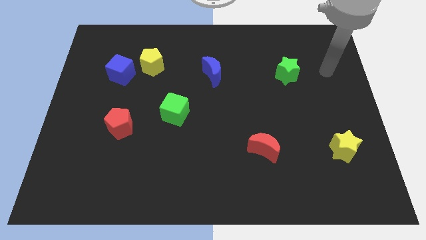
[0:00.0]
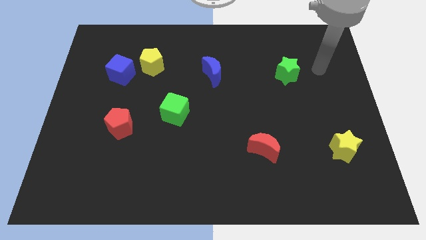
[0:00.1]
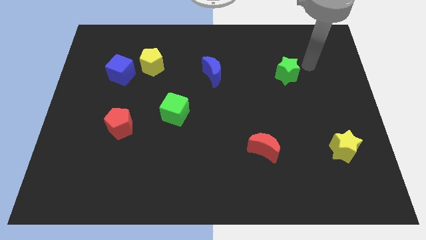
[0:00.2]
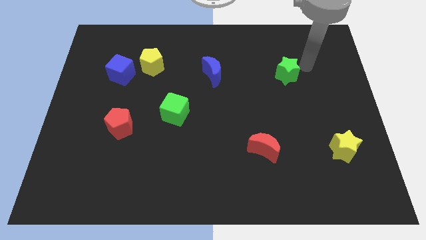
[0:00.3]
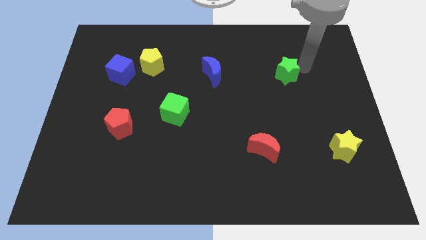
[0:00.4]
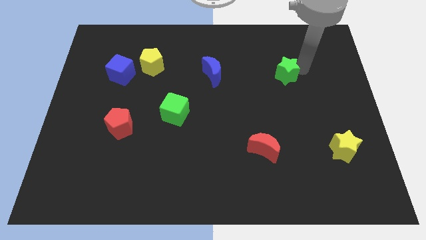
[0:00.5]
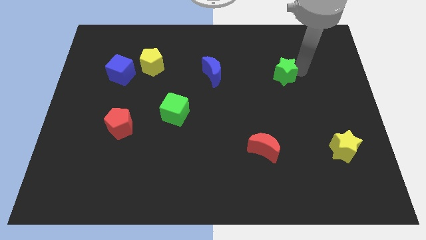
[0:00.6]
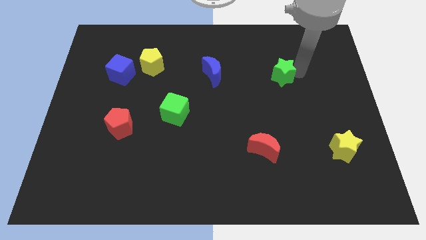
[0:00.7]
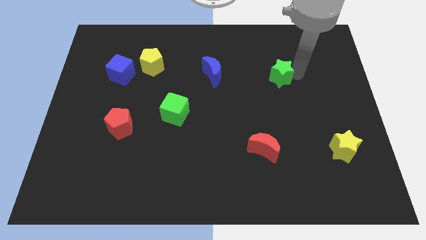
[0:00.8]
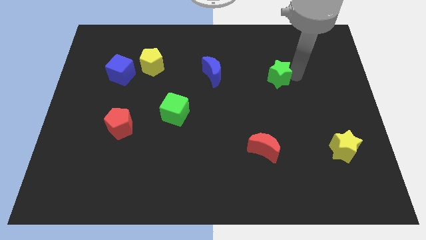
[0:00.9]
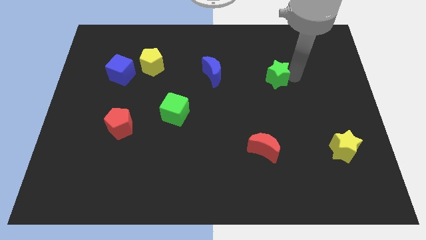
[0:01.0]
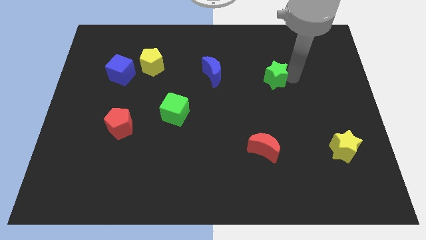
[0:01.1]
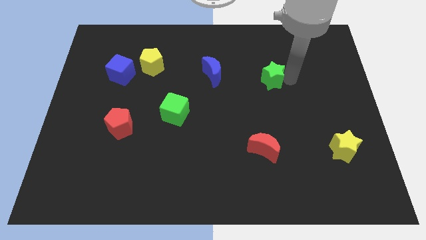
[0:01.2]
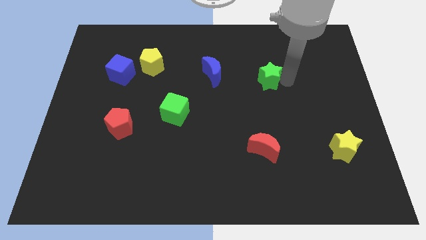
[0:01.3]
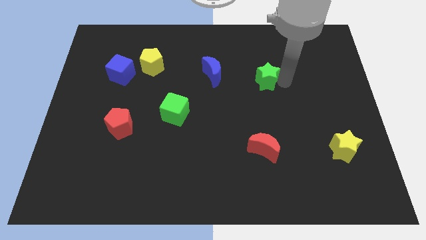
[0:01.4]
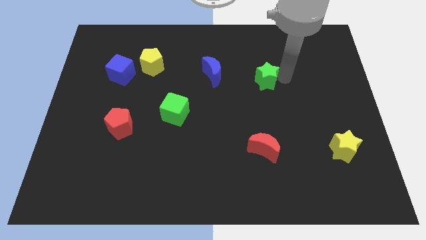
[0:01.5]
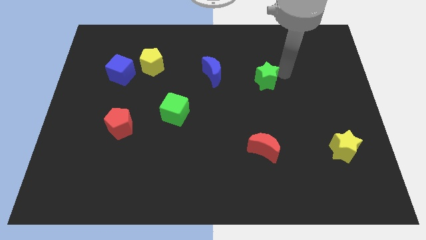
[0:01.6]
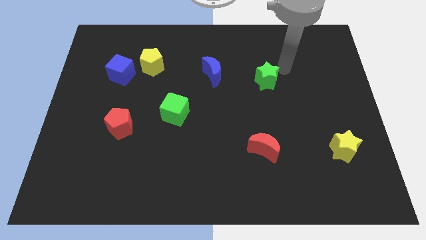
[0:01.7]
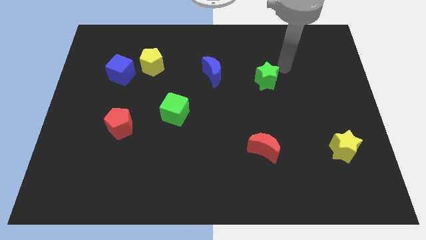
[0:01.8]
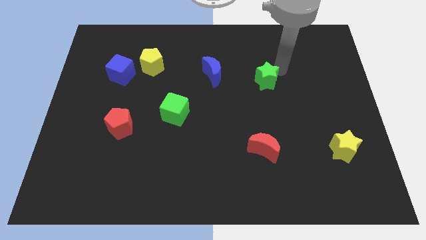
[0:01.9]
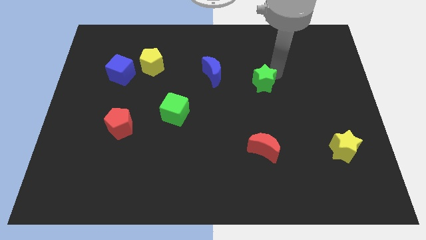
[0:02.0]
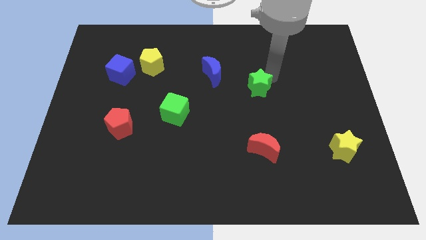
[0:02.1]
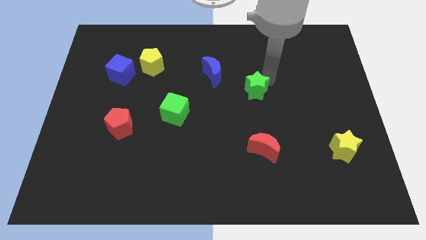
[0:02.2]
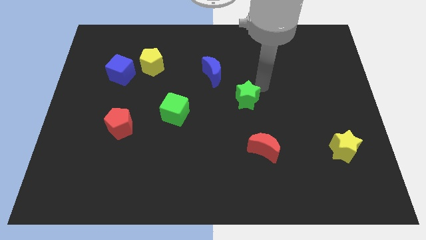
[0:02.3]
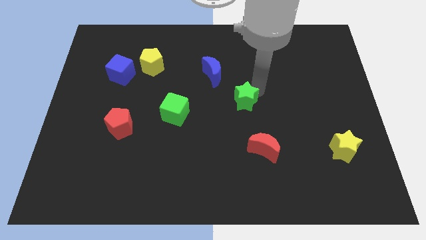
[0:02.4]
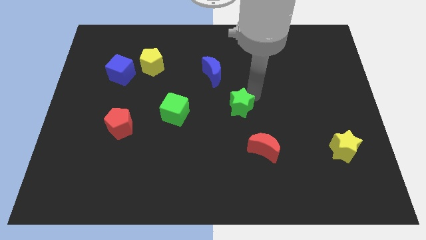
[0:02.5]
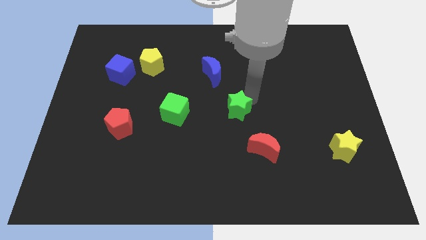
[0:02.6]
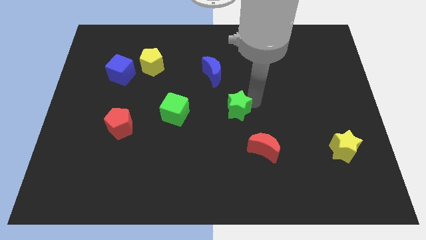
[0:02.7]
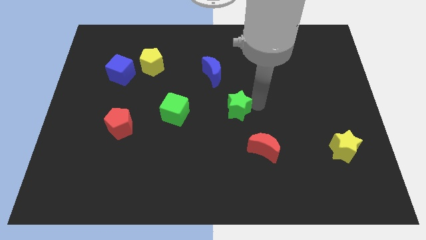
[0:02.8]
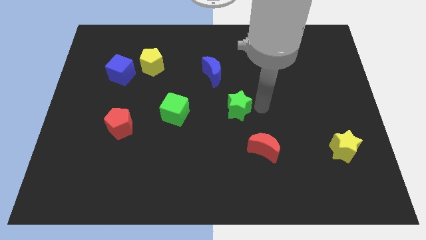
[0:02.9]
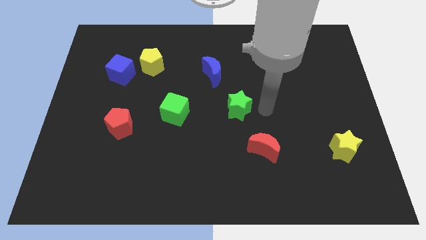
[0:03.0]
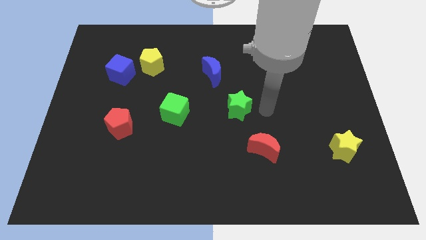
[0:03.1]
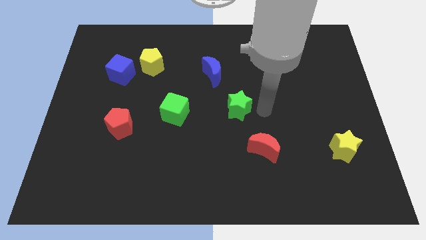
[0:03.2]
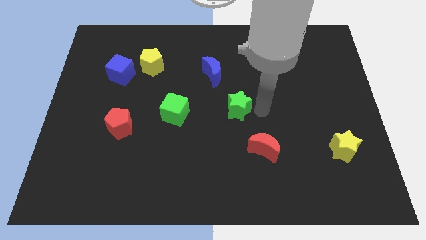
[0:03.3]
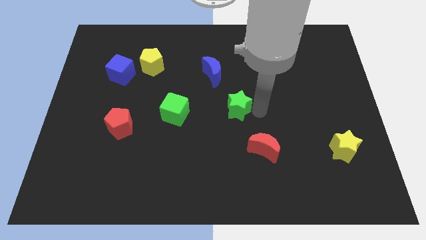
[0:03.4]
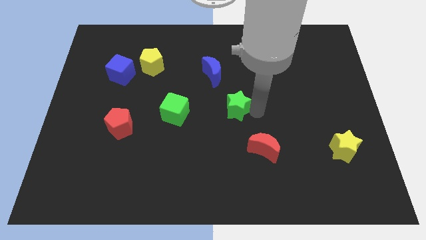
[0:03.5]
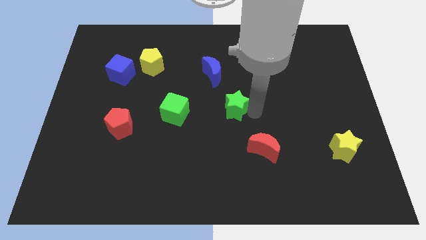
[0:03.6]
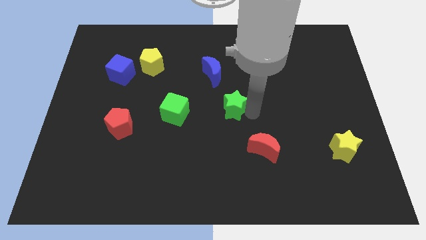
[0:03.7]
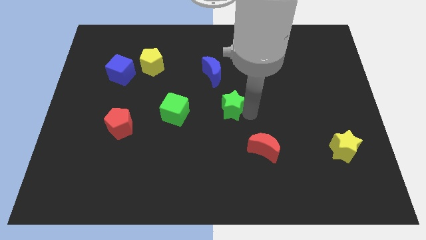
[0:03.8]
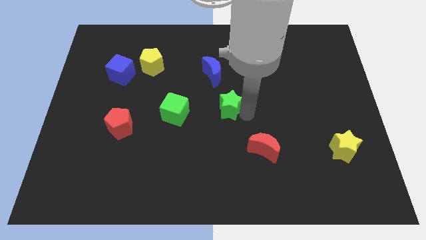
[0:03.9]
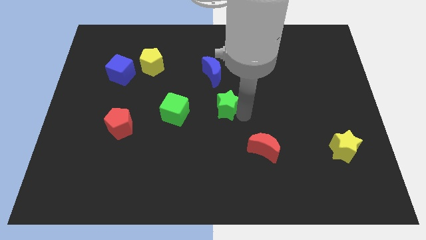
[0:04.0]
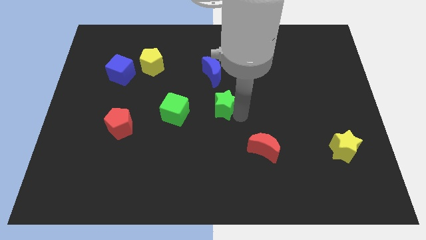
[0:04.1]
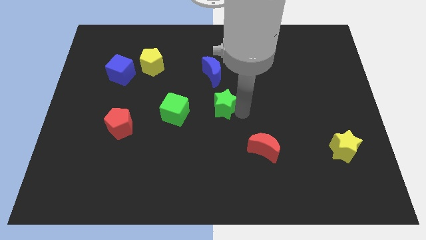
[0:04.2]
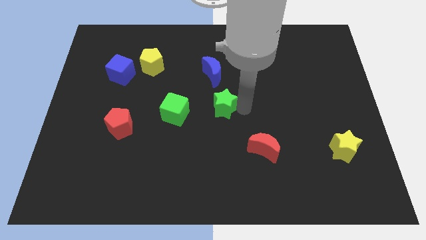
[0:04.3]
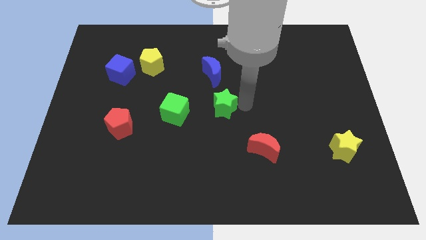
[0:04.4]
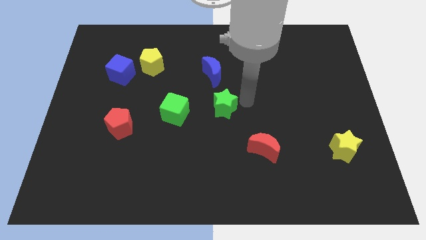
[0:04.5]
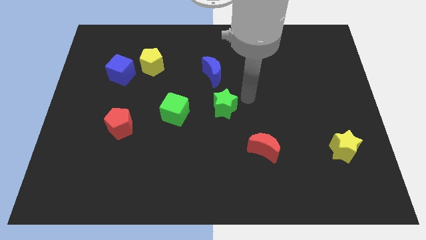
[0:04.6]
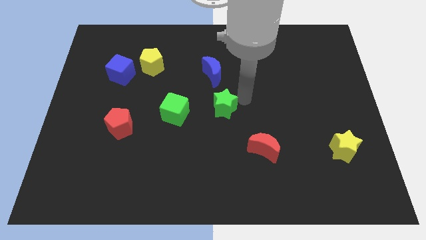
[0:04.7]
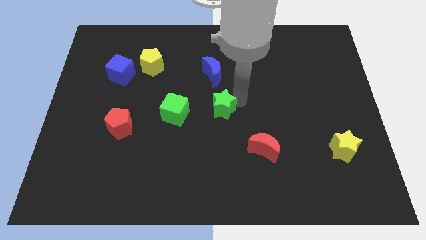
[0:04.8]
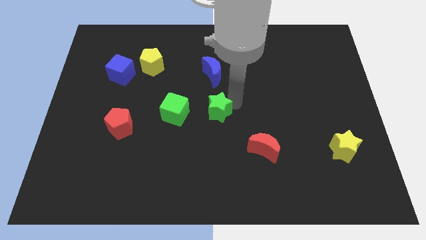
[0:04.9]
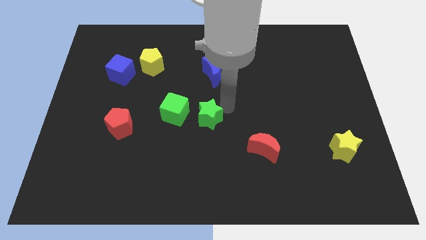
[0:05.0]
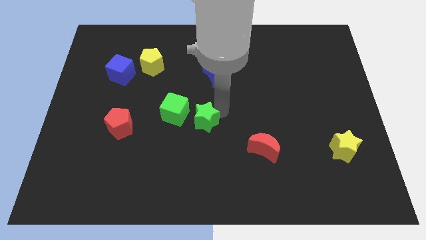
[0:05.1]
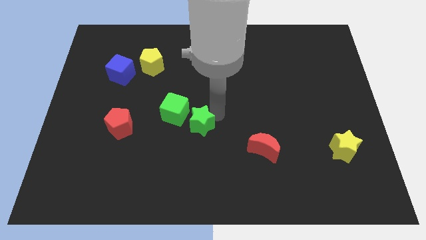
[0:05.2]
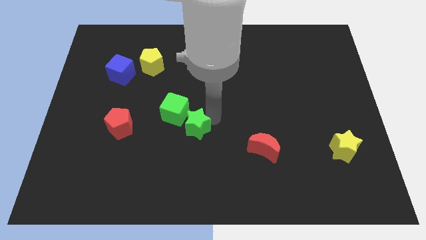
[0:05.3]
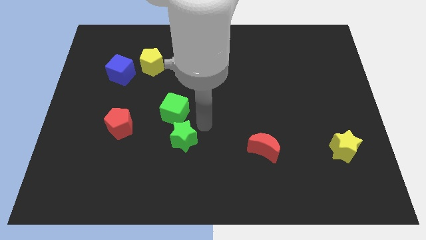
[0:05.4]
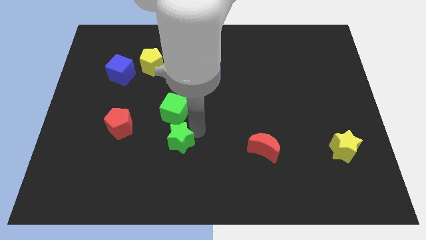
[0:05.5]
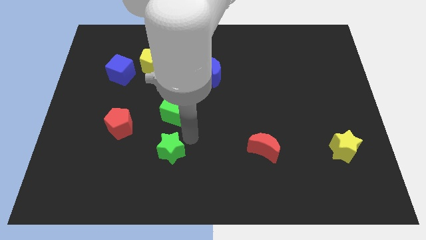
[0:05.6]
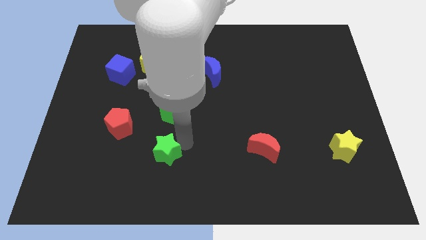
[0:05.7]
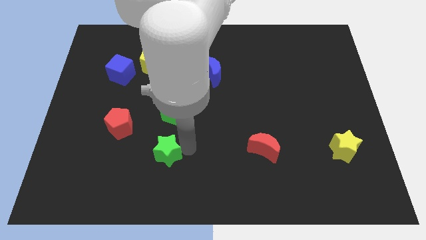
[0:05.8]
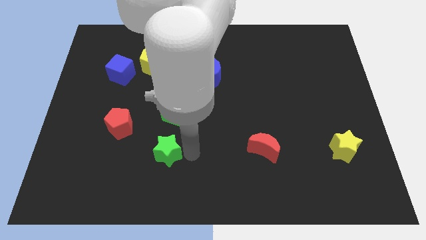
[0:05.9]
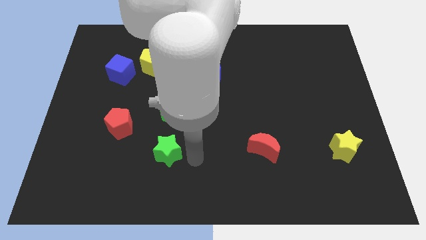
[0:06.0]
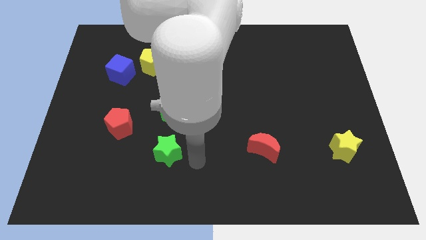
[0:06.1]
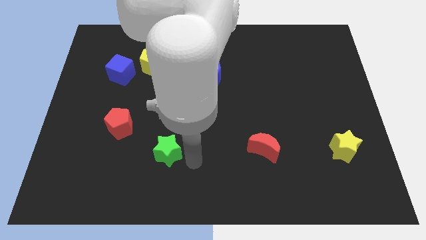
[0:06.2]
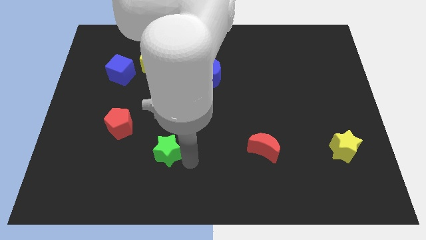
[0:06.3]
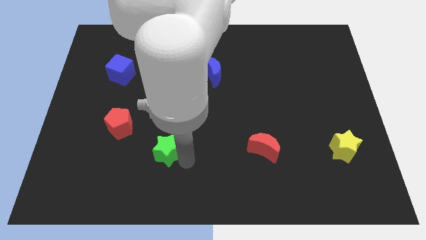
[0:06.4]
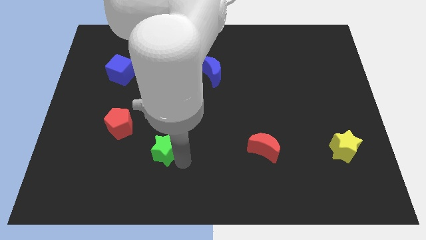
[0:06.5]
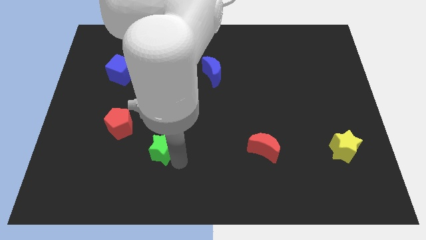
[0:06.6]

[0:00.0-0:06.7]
slide the green star to the bottom right side of the red pentagon
